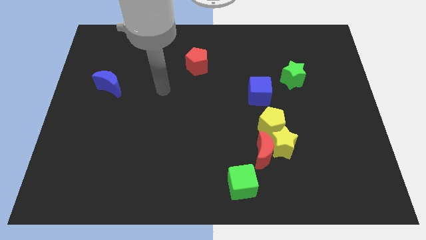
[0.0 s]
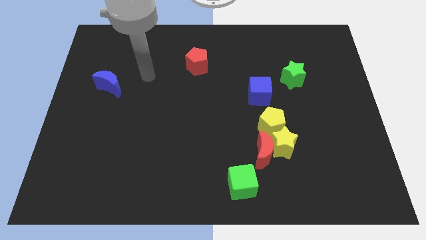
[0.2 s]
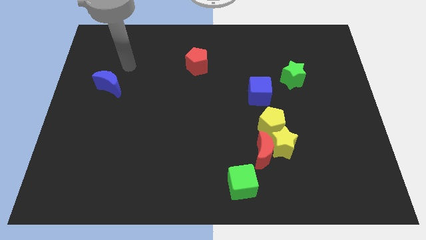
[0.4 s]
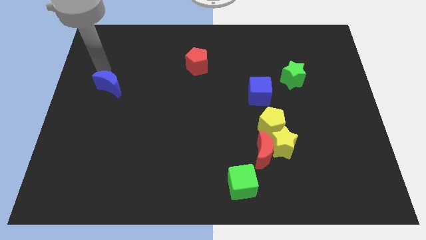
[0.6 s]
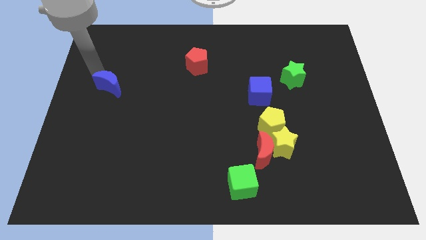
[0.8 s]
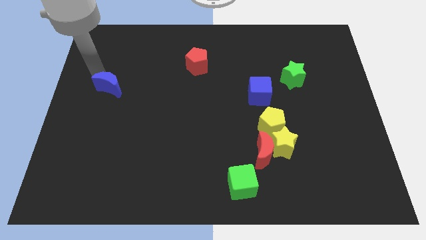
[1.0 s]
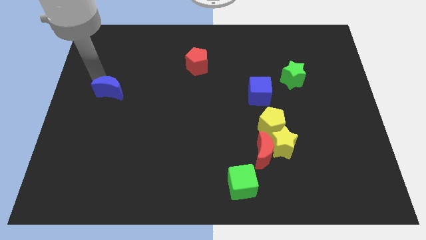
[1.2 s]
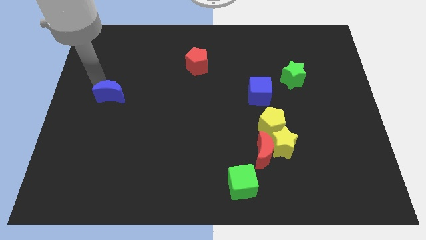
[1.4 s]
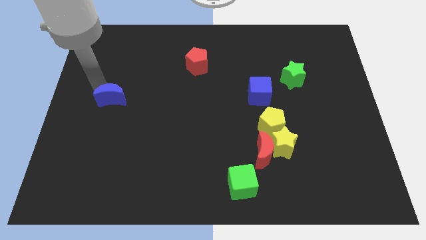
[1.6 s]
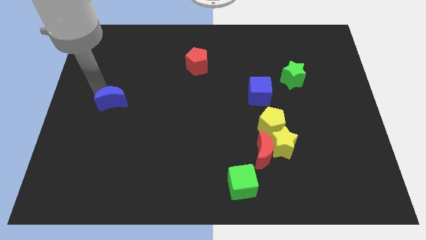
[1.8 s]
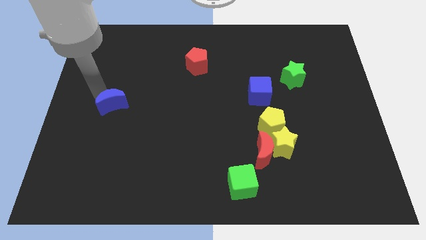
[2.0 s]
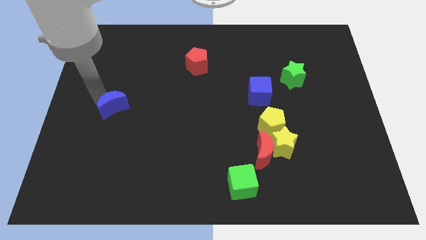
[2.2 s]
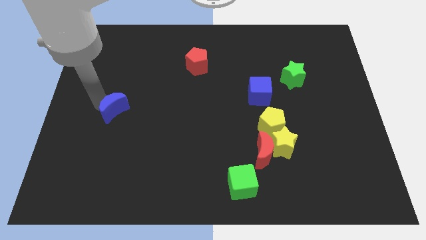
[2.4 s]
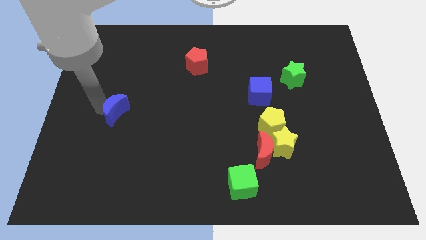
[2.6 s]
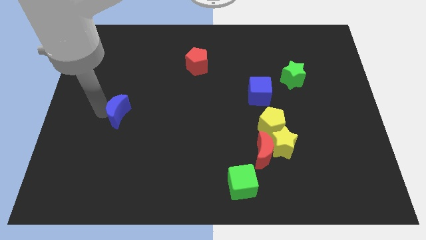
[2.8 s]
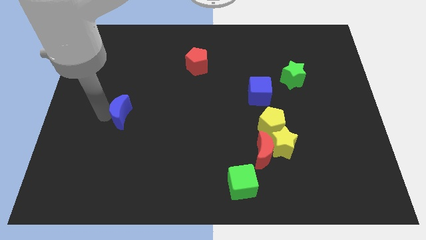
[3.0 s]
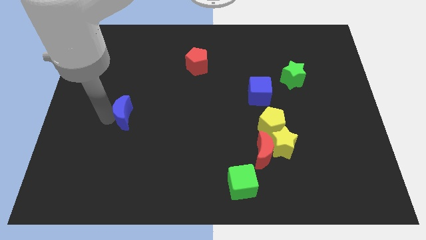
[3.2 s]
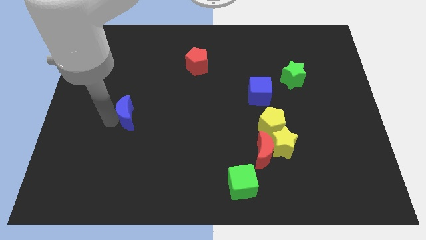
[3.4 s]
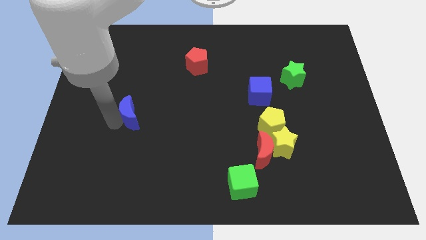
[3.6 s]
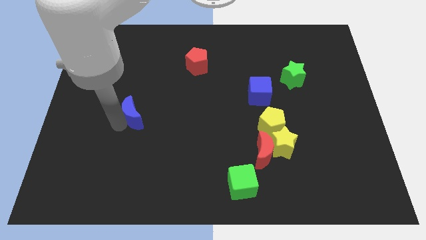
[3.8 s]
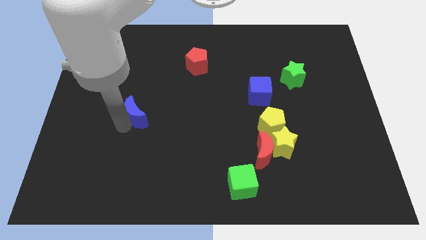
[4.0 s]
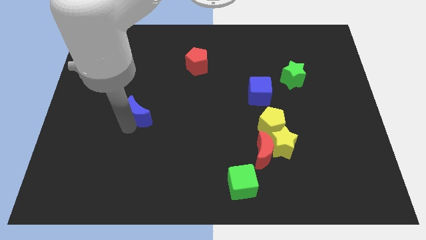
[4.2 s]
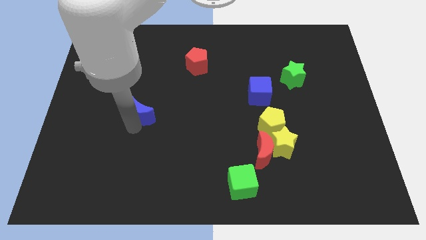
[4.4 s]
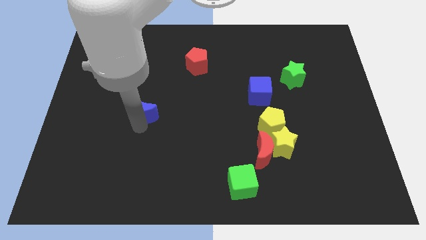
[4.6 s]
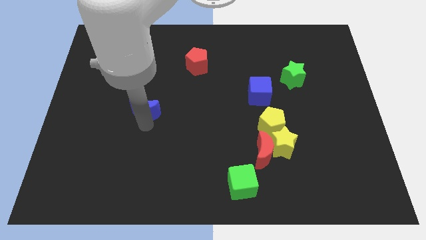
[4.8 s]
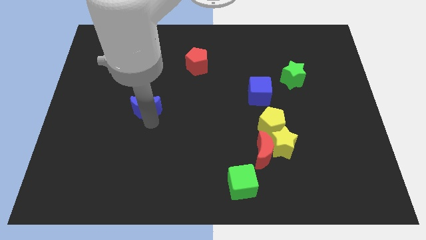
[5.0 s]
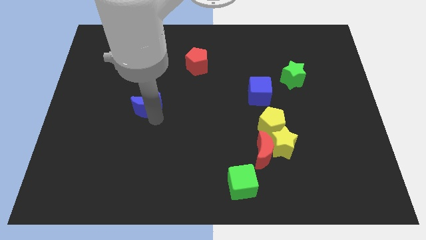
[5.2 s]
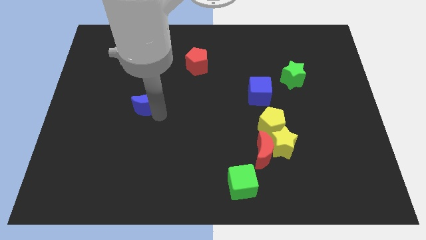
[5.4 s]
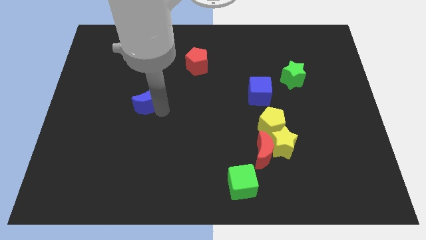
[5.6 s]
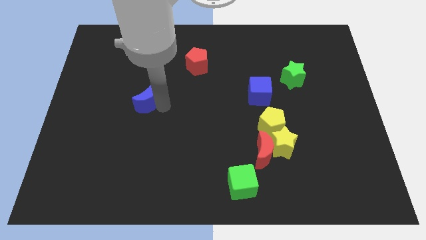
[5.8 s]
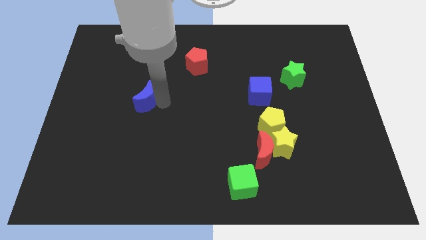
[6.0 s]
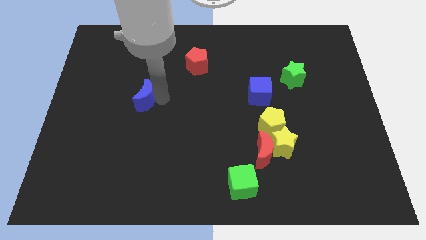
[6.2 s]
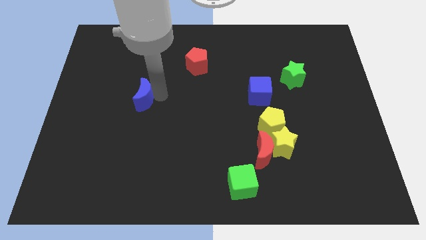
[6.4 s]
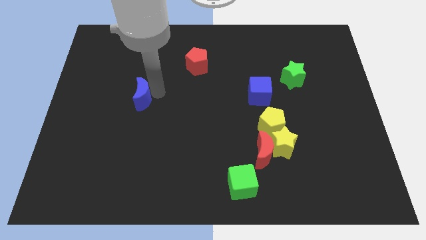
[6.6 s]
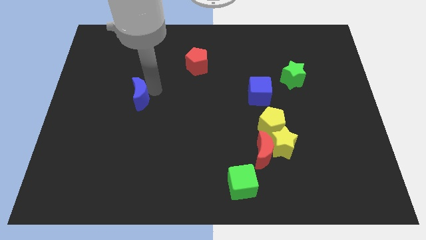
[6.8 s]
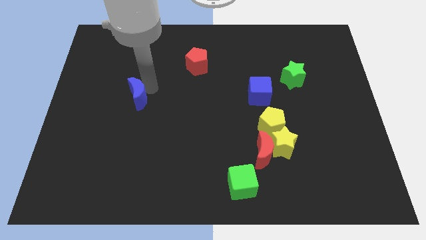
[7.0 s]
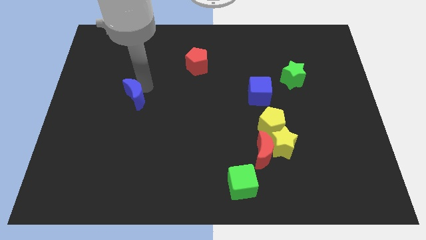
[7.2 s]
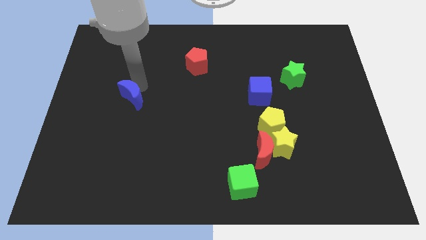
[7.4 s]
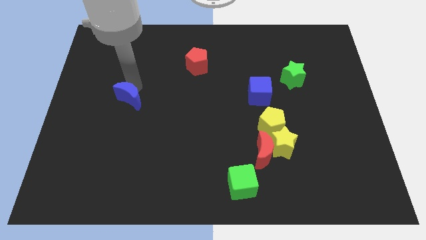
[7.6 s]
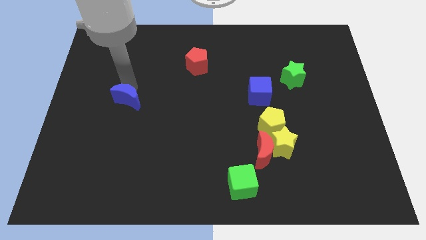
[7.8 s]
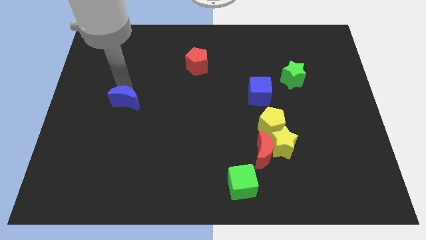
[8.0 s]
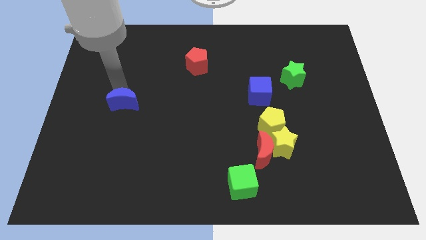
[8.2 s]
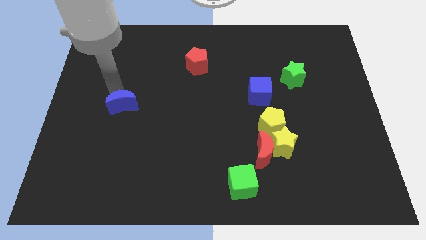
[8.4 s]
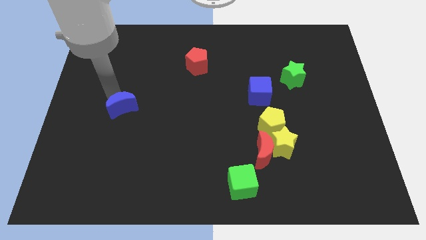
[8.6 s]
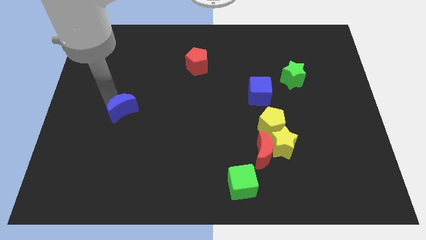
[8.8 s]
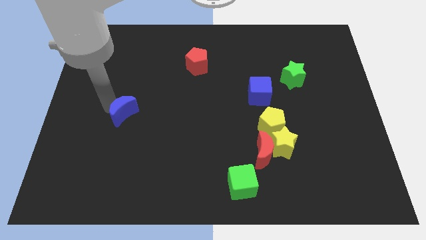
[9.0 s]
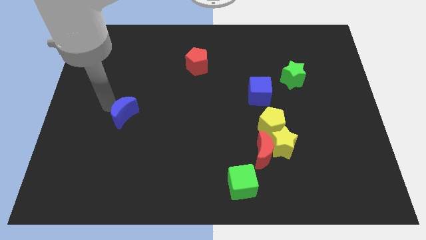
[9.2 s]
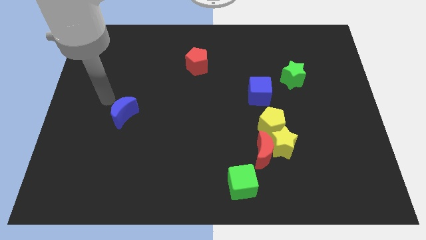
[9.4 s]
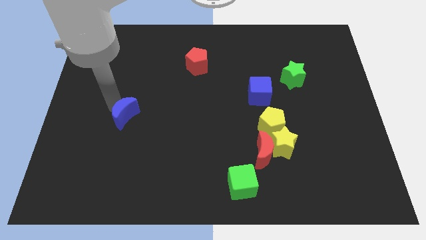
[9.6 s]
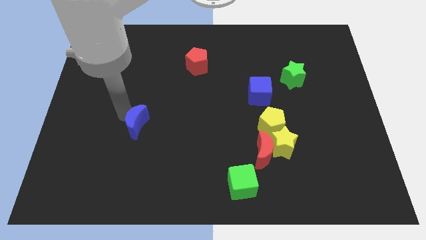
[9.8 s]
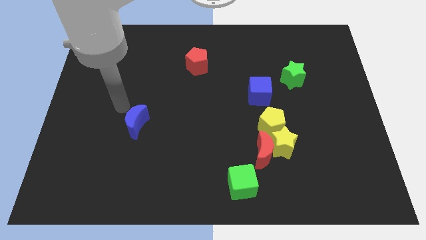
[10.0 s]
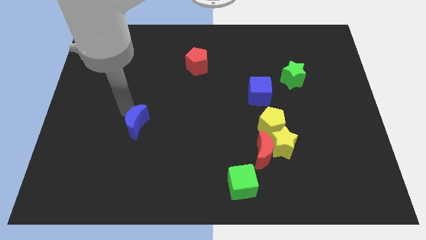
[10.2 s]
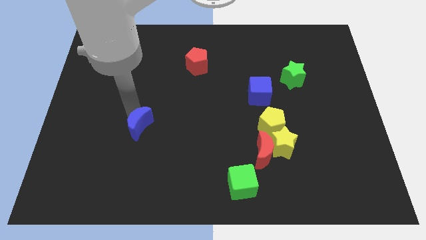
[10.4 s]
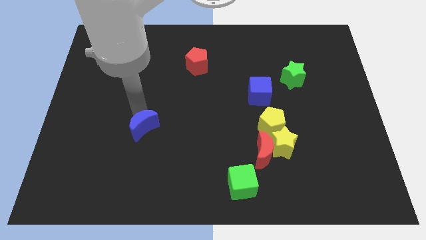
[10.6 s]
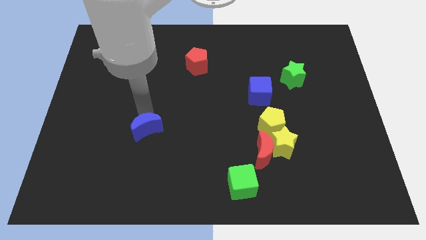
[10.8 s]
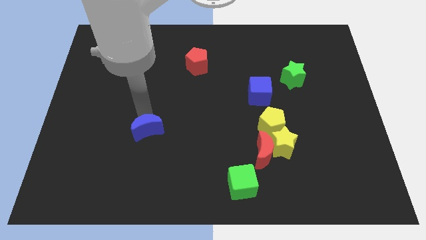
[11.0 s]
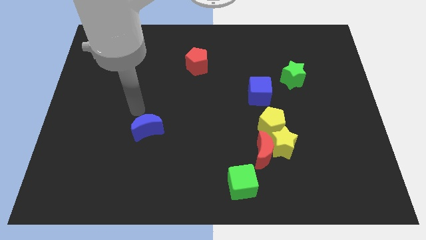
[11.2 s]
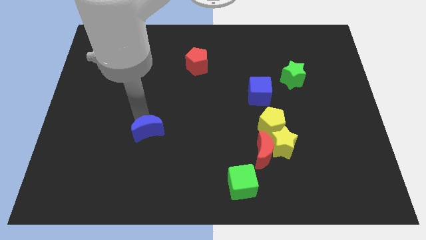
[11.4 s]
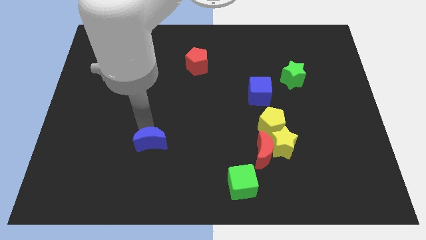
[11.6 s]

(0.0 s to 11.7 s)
slide the blue moon diagonally downwards and to the right

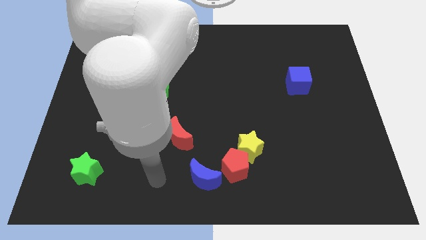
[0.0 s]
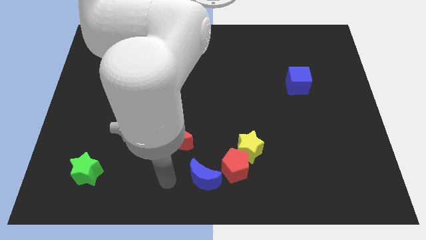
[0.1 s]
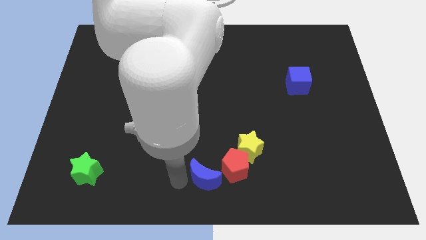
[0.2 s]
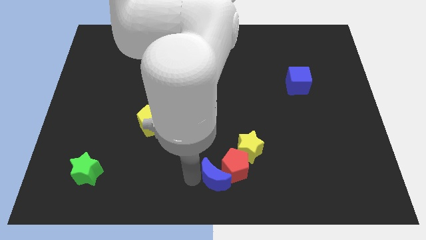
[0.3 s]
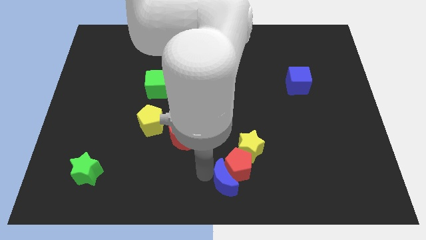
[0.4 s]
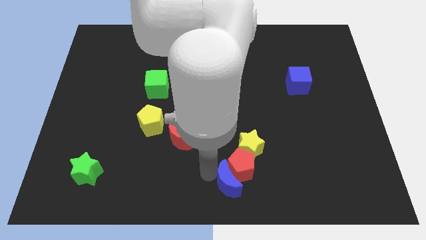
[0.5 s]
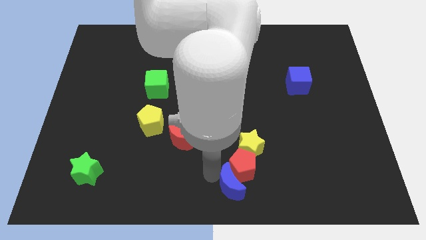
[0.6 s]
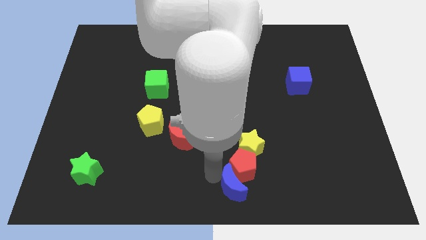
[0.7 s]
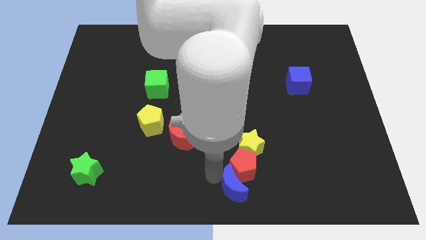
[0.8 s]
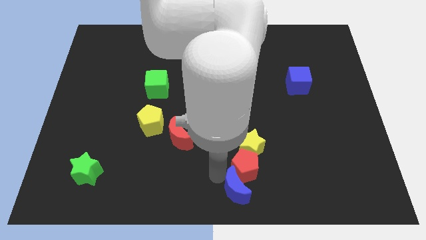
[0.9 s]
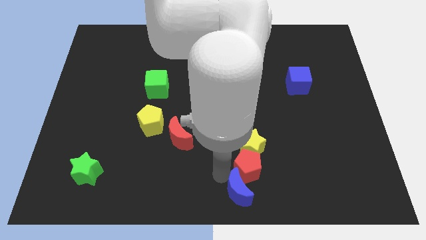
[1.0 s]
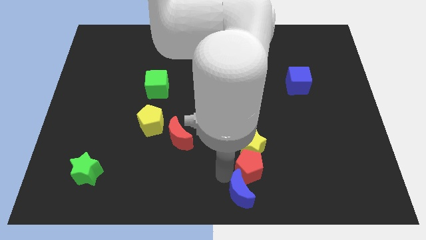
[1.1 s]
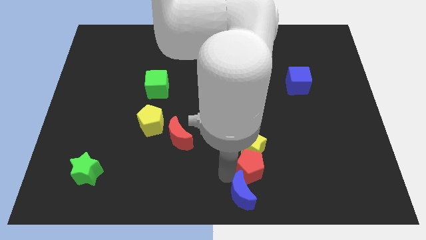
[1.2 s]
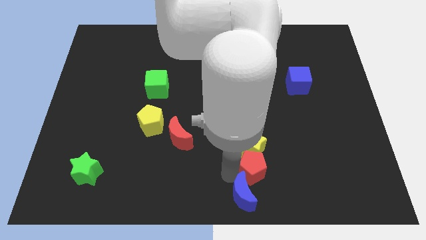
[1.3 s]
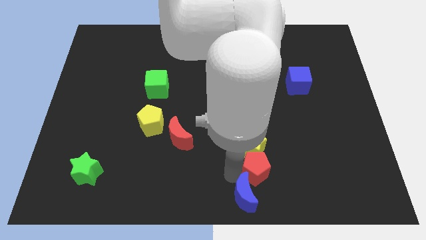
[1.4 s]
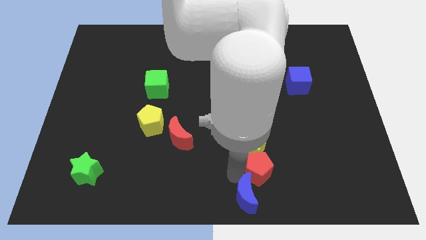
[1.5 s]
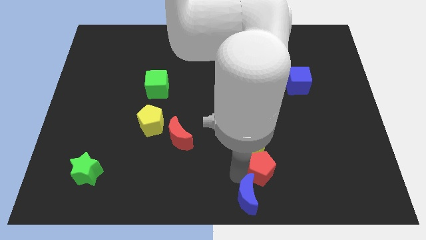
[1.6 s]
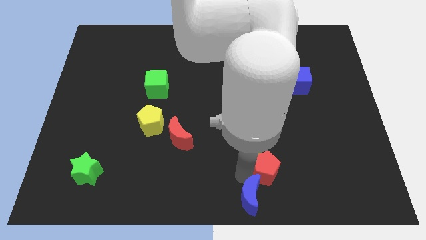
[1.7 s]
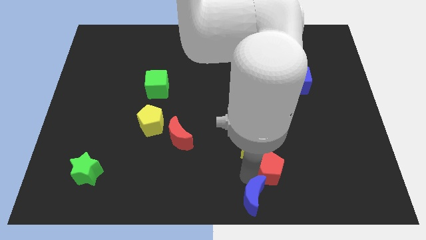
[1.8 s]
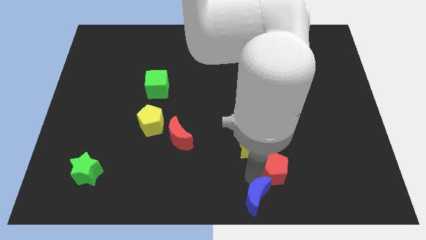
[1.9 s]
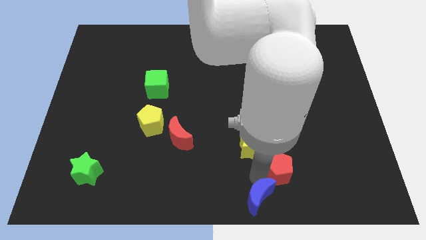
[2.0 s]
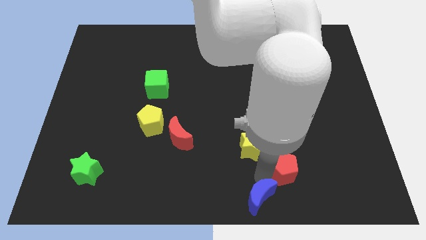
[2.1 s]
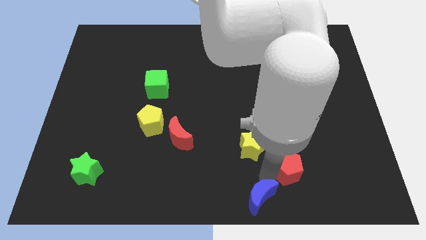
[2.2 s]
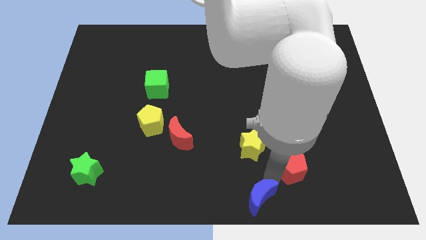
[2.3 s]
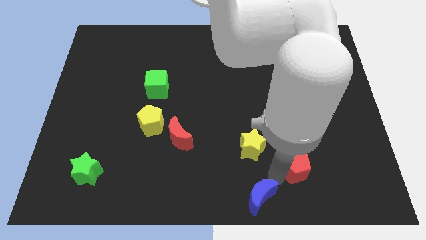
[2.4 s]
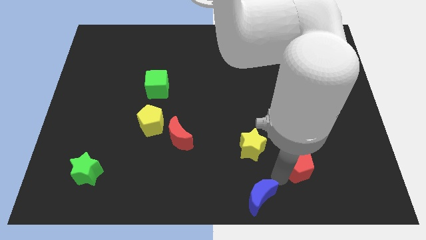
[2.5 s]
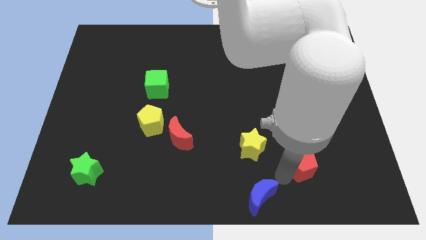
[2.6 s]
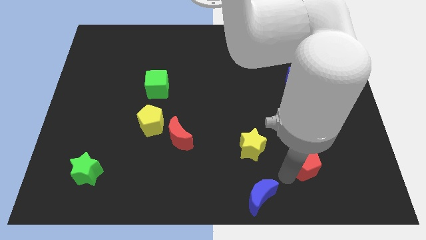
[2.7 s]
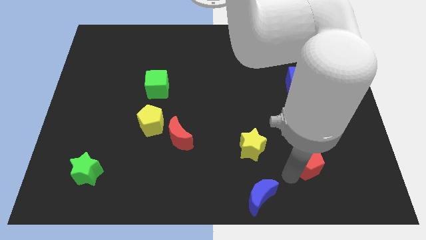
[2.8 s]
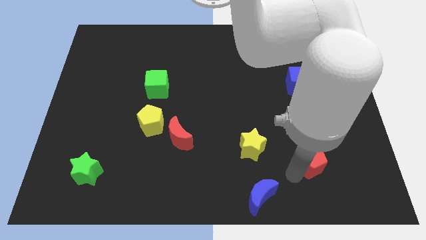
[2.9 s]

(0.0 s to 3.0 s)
slightly push the red pentagon up and right diagonally
